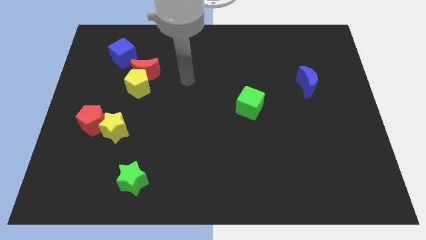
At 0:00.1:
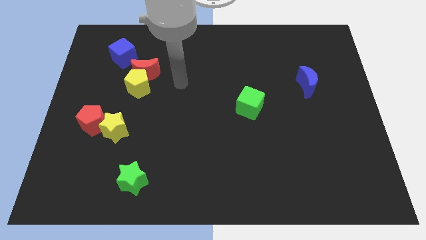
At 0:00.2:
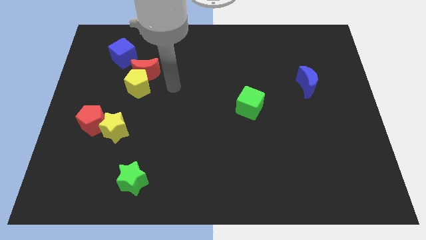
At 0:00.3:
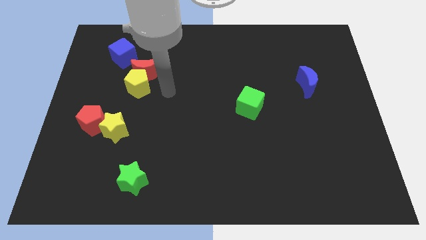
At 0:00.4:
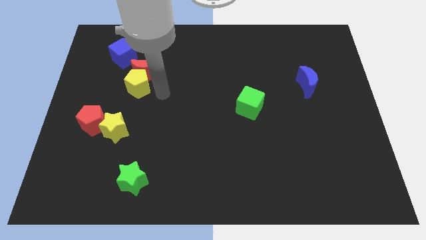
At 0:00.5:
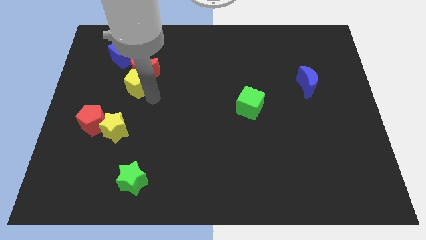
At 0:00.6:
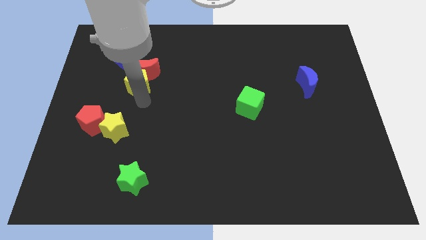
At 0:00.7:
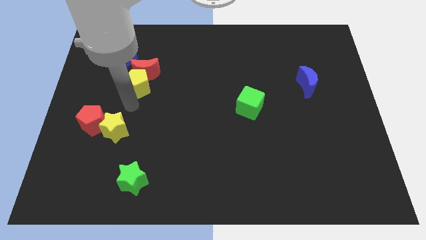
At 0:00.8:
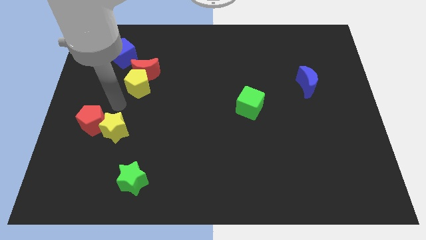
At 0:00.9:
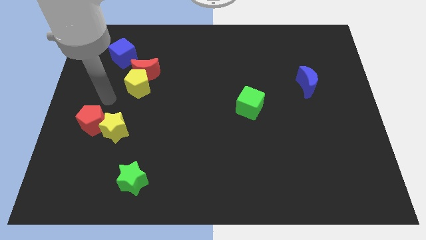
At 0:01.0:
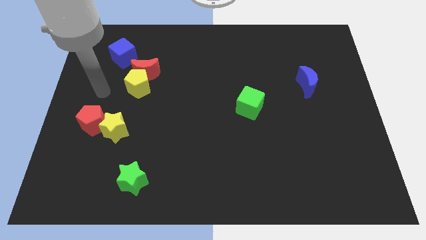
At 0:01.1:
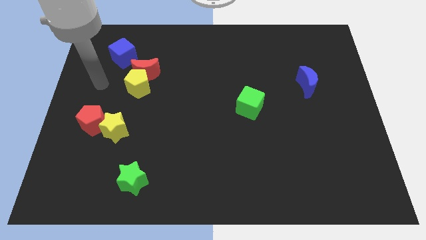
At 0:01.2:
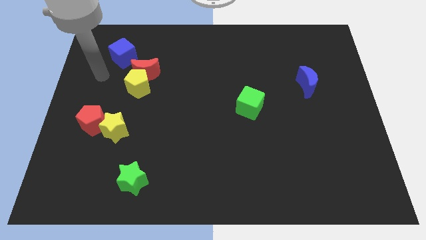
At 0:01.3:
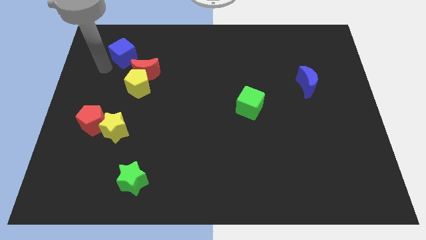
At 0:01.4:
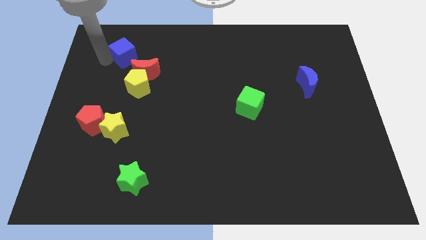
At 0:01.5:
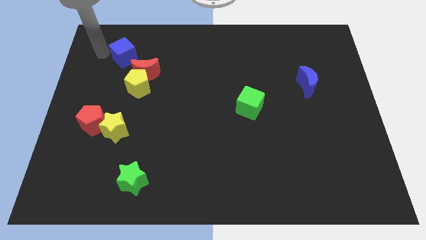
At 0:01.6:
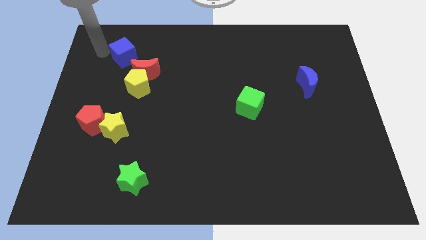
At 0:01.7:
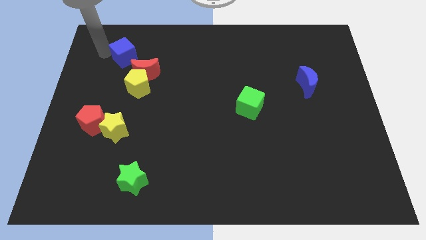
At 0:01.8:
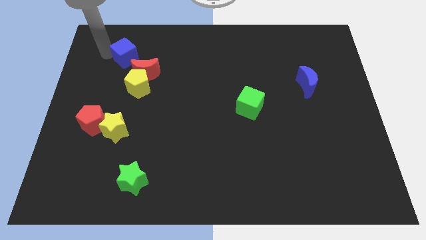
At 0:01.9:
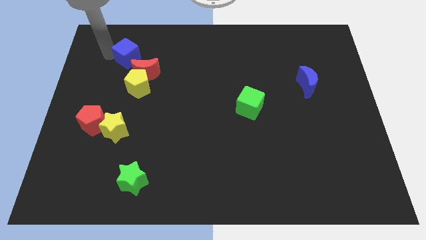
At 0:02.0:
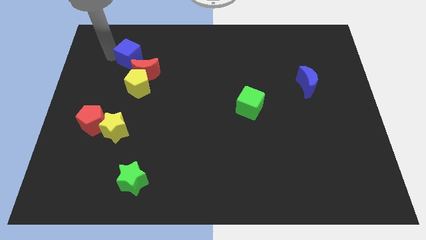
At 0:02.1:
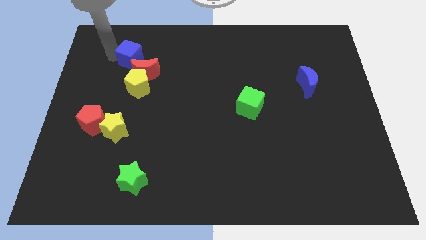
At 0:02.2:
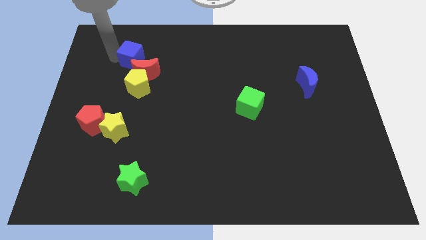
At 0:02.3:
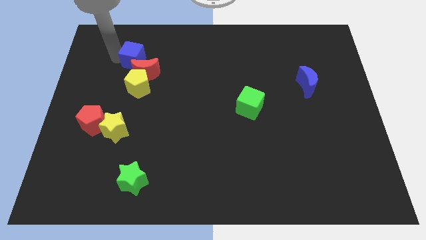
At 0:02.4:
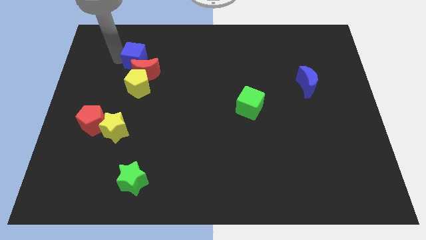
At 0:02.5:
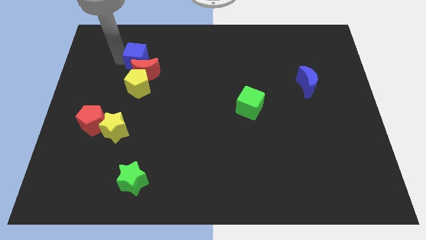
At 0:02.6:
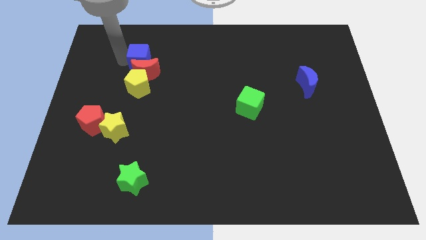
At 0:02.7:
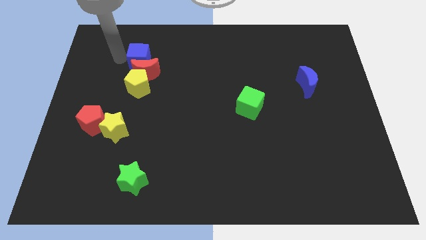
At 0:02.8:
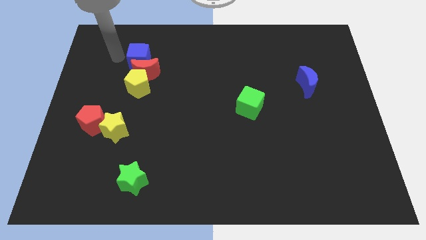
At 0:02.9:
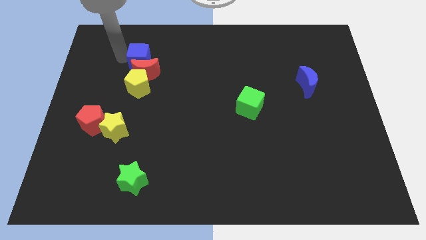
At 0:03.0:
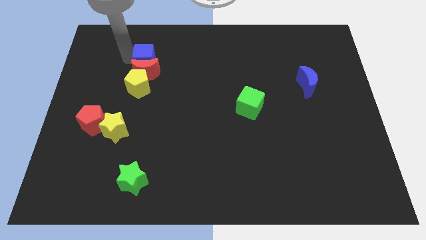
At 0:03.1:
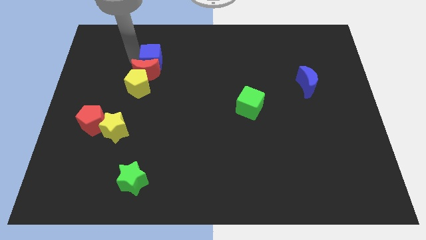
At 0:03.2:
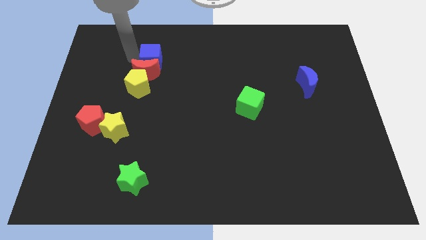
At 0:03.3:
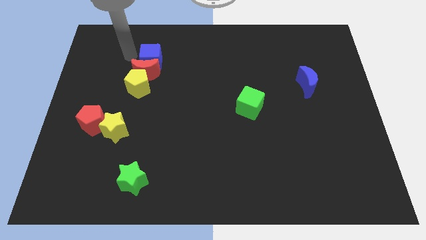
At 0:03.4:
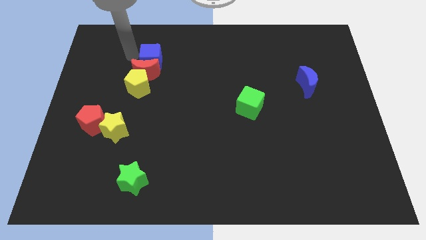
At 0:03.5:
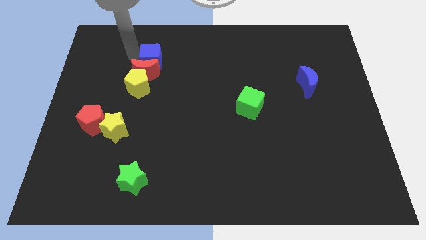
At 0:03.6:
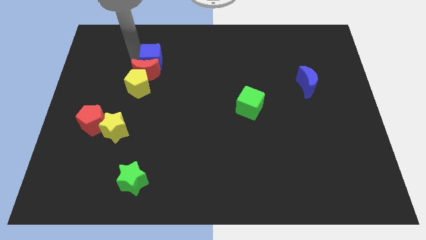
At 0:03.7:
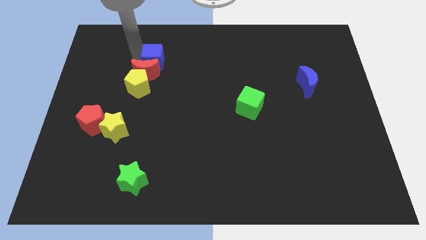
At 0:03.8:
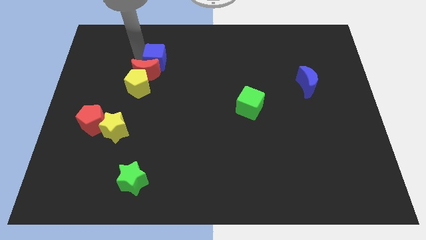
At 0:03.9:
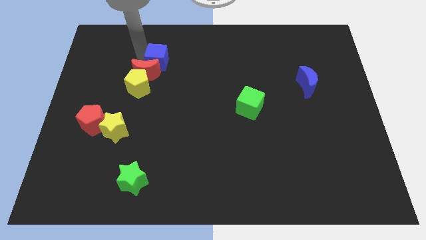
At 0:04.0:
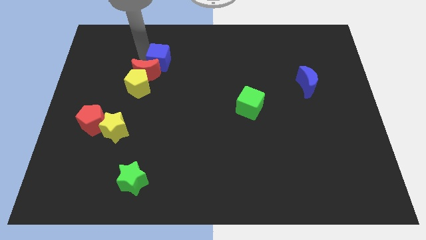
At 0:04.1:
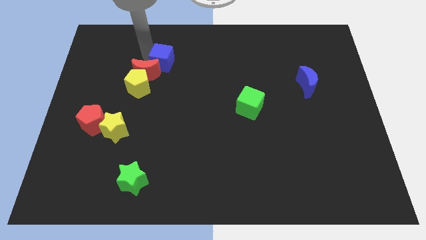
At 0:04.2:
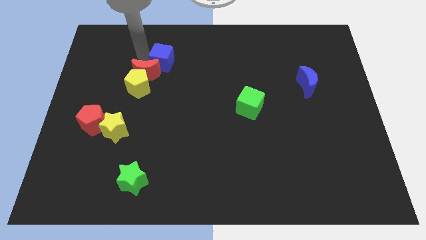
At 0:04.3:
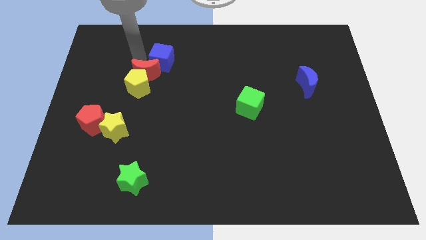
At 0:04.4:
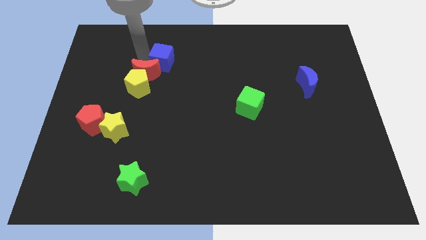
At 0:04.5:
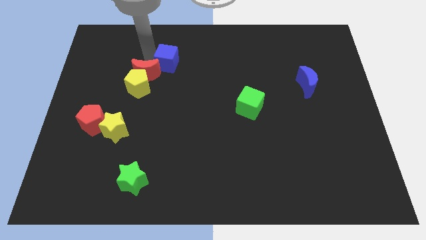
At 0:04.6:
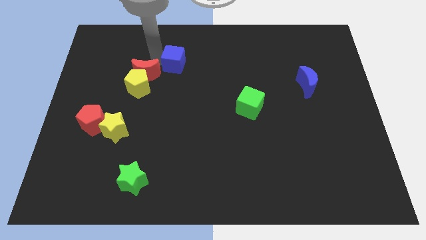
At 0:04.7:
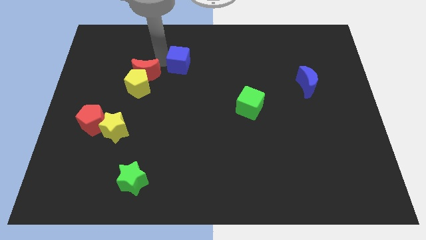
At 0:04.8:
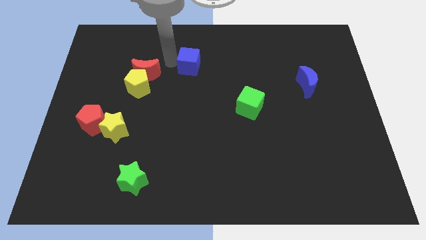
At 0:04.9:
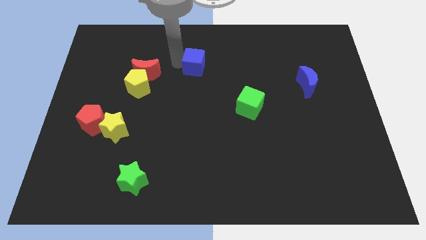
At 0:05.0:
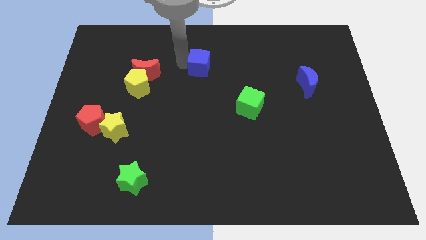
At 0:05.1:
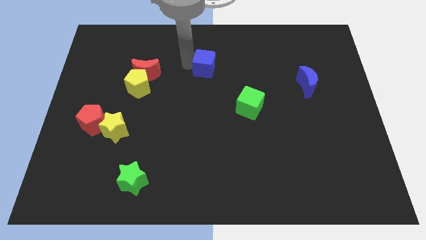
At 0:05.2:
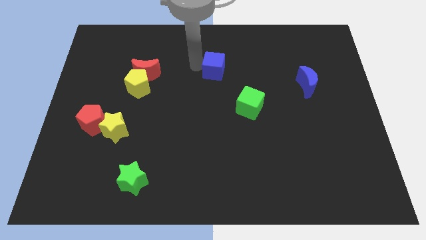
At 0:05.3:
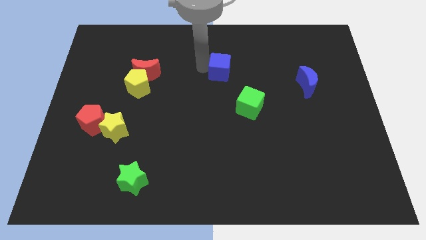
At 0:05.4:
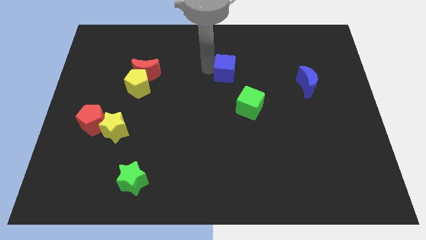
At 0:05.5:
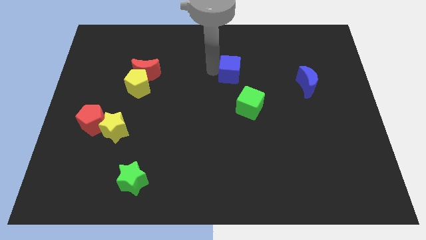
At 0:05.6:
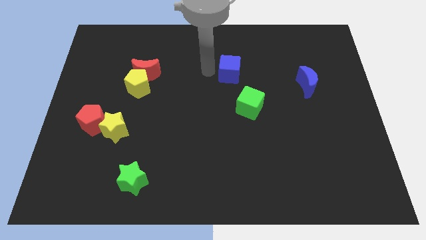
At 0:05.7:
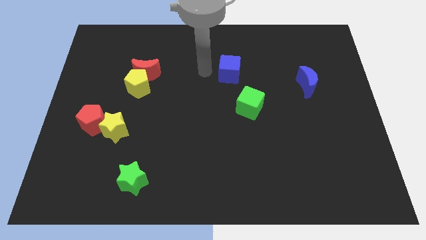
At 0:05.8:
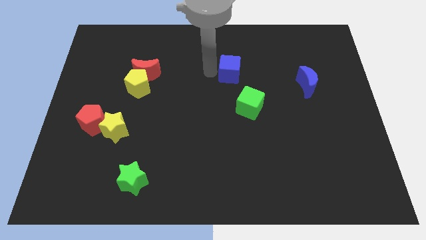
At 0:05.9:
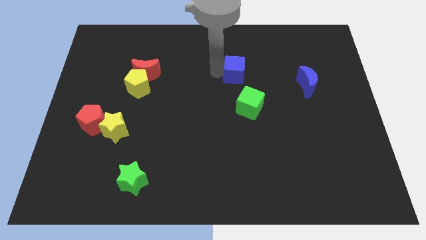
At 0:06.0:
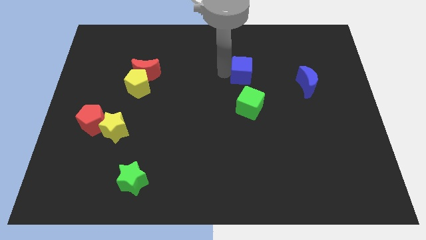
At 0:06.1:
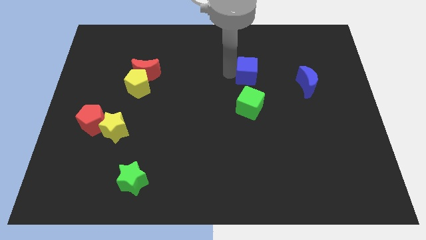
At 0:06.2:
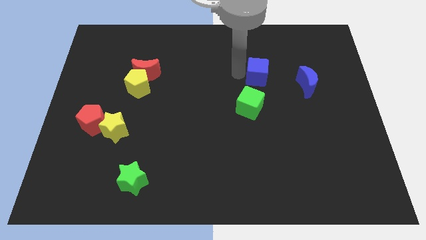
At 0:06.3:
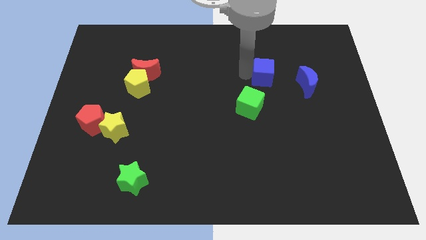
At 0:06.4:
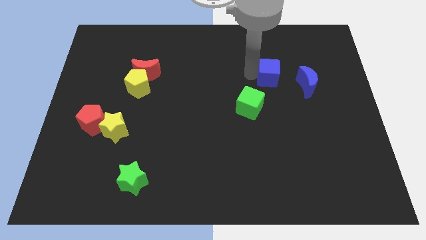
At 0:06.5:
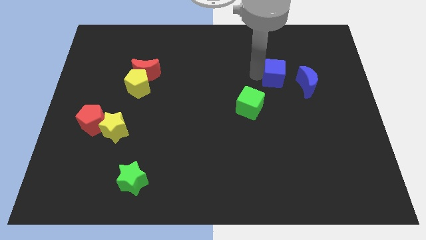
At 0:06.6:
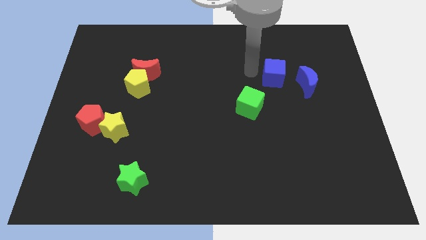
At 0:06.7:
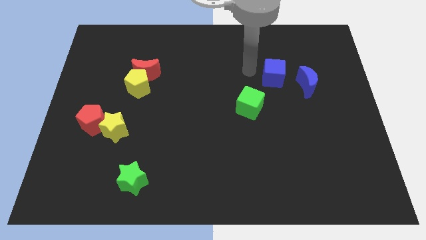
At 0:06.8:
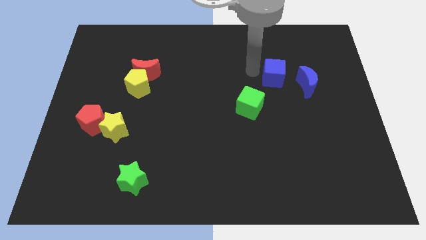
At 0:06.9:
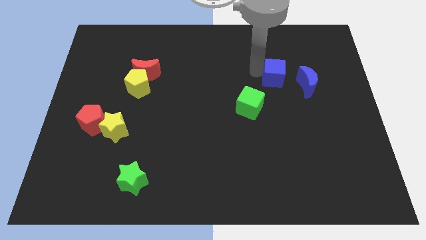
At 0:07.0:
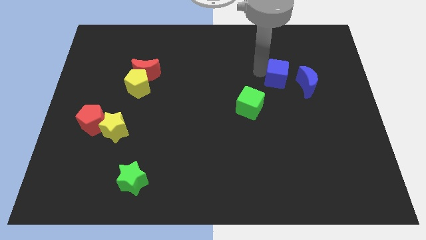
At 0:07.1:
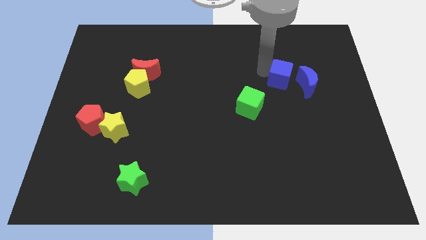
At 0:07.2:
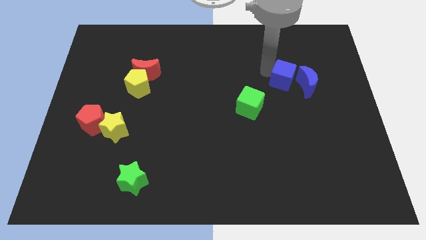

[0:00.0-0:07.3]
move the blue cube towards the blue moon
